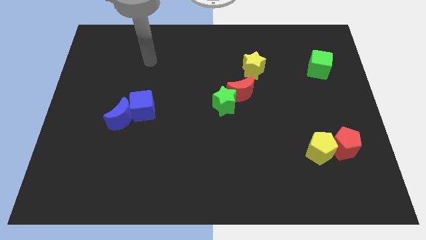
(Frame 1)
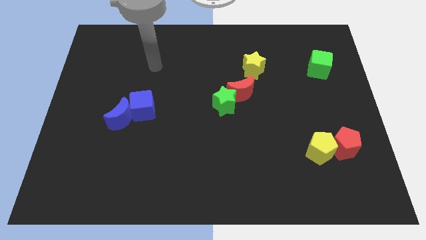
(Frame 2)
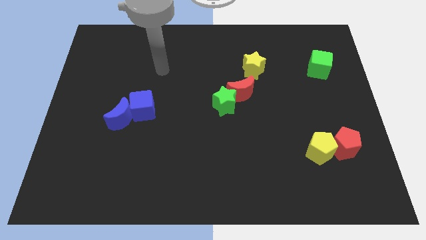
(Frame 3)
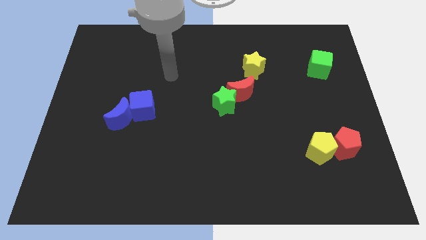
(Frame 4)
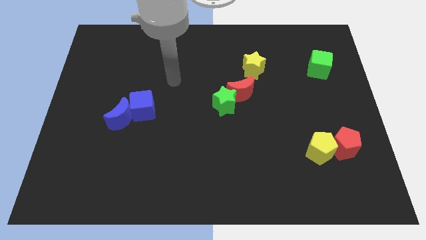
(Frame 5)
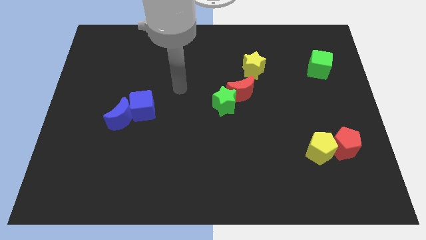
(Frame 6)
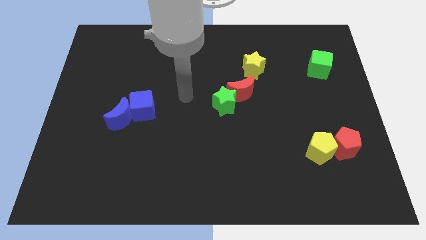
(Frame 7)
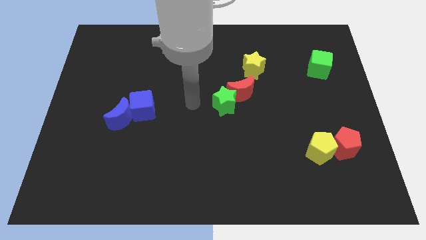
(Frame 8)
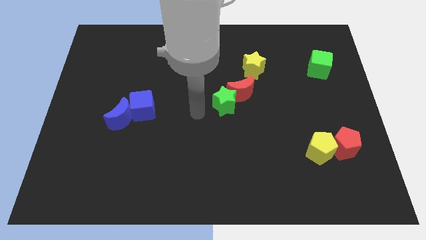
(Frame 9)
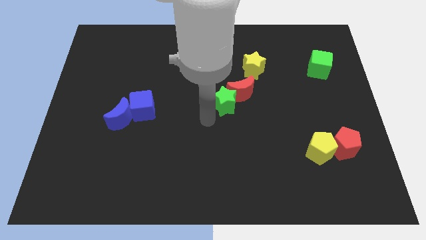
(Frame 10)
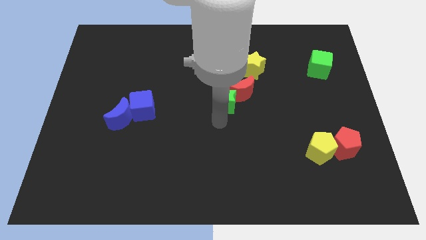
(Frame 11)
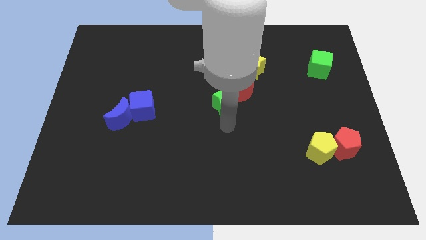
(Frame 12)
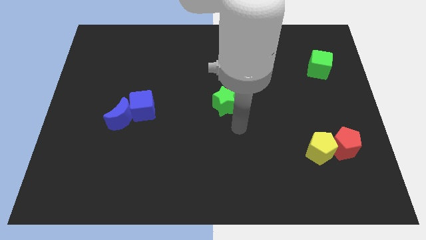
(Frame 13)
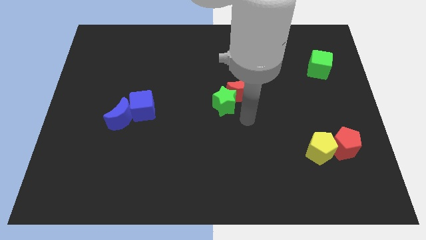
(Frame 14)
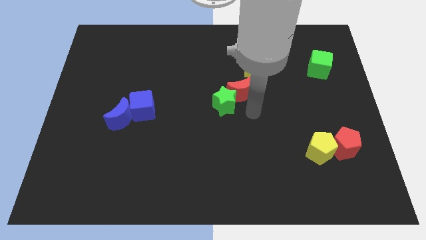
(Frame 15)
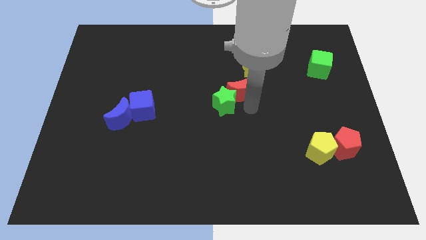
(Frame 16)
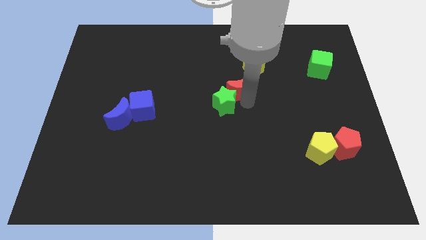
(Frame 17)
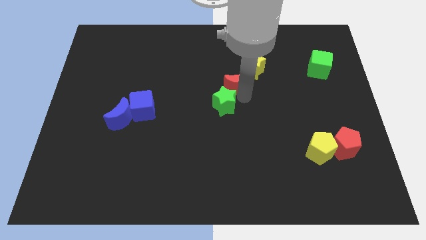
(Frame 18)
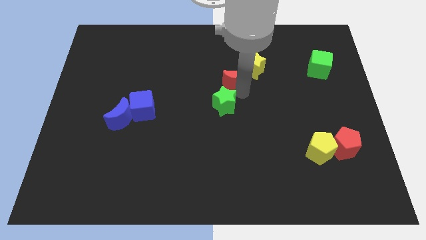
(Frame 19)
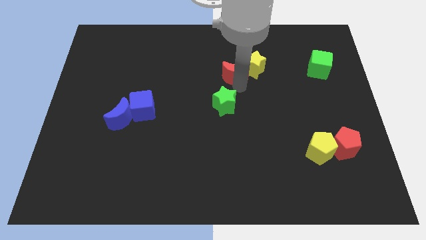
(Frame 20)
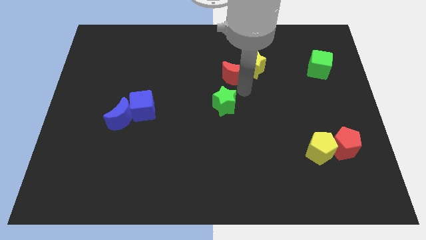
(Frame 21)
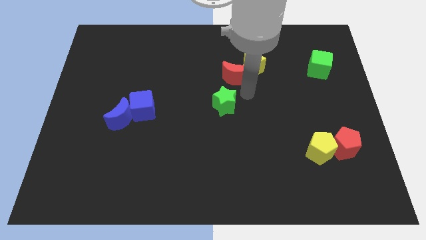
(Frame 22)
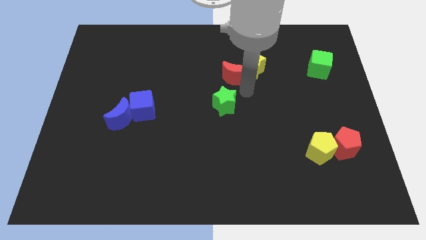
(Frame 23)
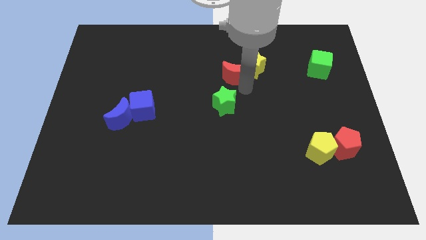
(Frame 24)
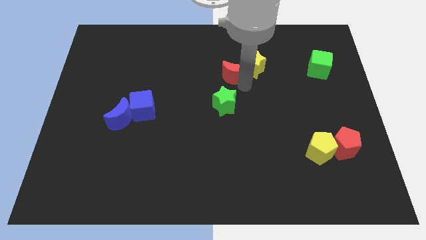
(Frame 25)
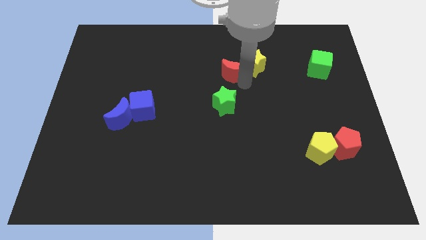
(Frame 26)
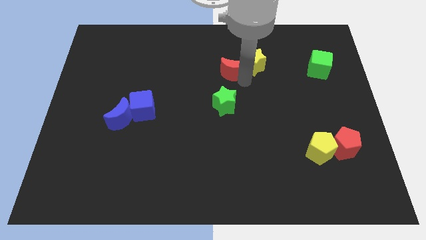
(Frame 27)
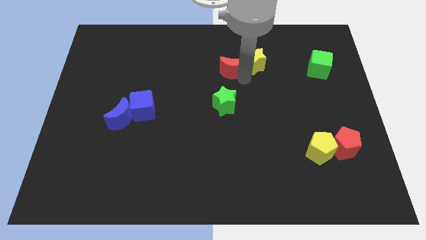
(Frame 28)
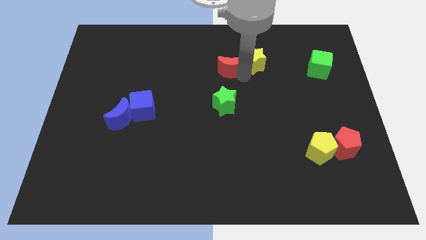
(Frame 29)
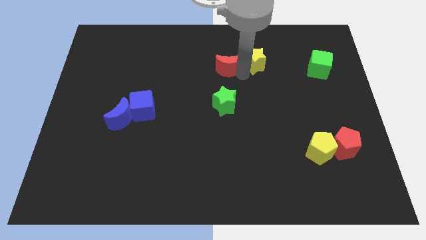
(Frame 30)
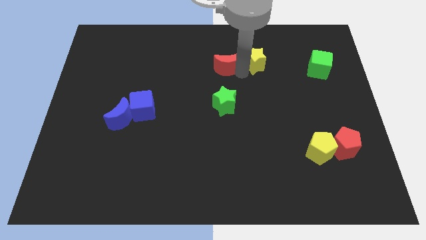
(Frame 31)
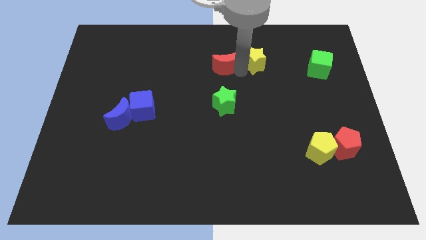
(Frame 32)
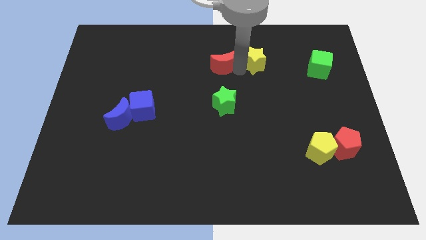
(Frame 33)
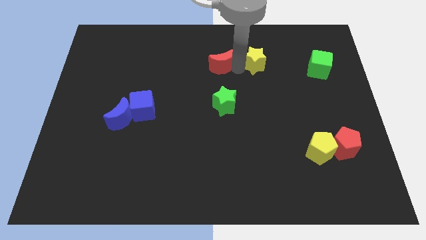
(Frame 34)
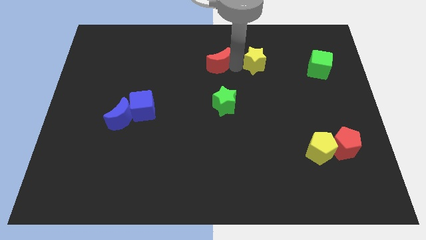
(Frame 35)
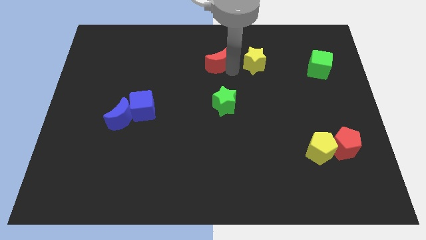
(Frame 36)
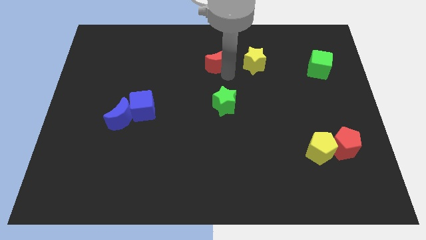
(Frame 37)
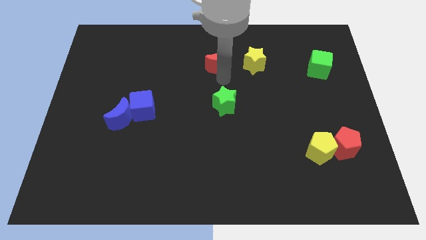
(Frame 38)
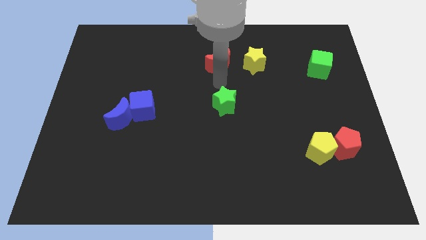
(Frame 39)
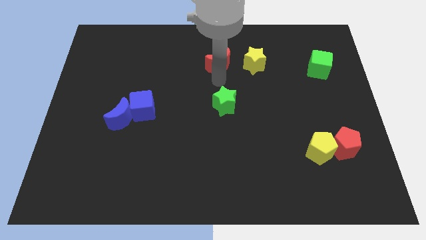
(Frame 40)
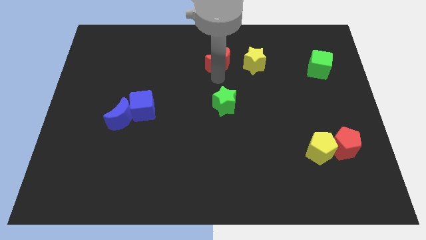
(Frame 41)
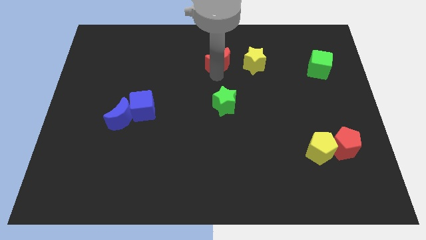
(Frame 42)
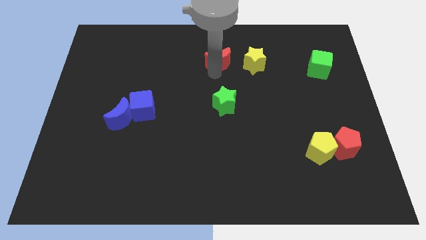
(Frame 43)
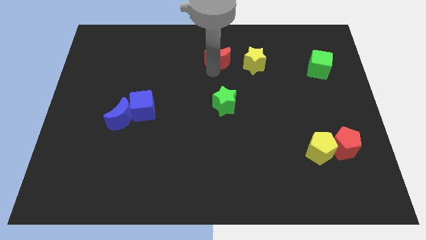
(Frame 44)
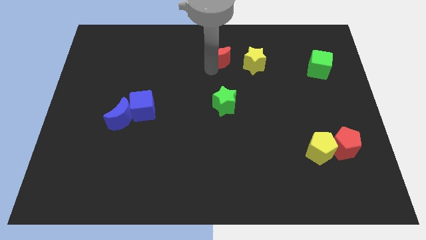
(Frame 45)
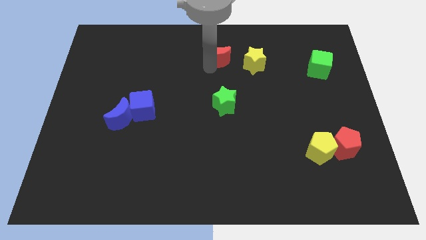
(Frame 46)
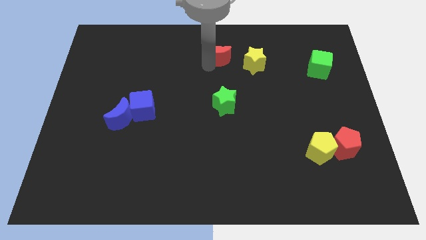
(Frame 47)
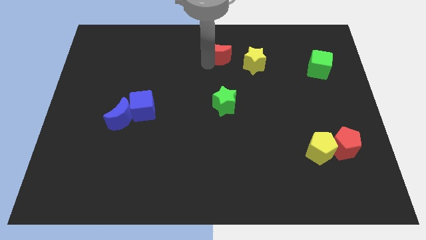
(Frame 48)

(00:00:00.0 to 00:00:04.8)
push the red moon to the top

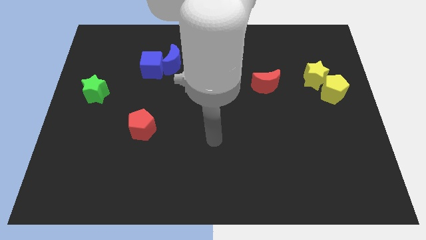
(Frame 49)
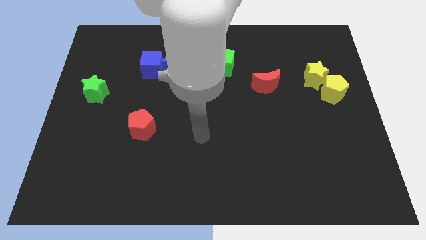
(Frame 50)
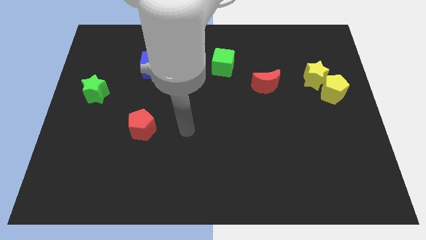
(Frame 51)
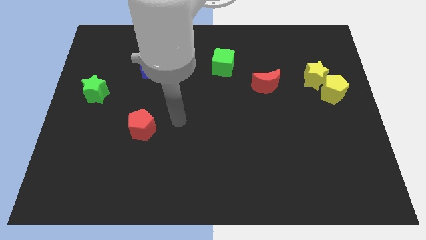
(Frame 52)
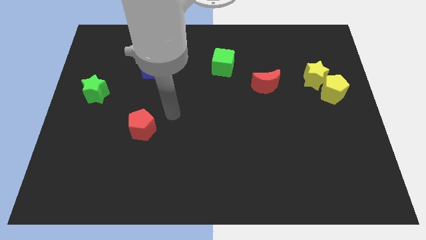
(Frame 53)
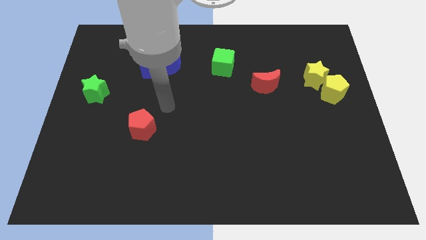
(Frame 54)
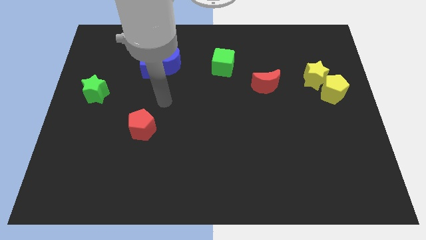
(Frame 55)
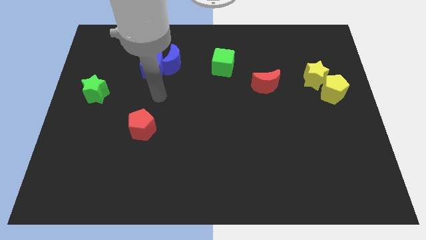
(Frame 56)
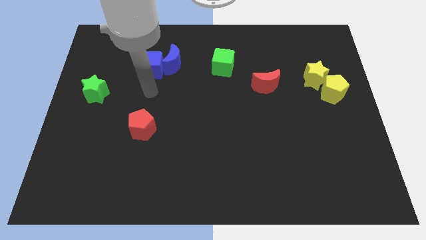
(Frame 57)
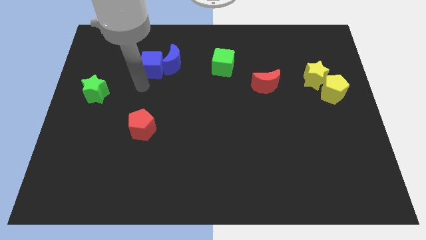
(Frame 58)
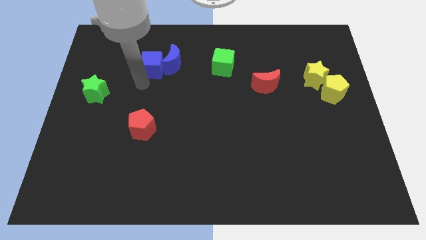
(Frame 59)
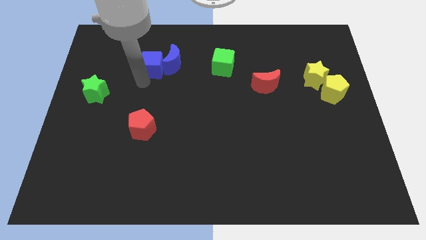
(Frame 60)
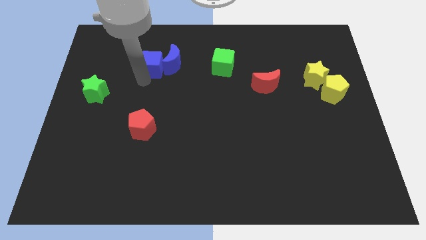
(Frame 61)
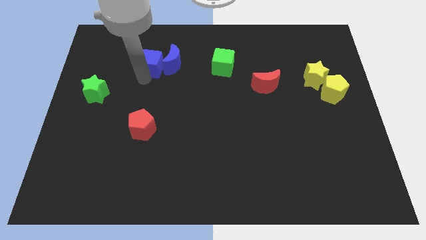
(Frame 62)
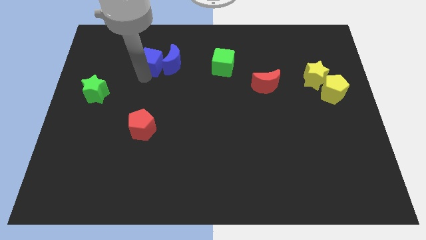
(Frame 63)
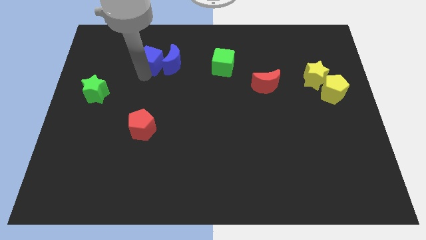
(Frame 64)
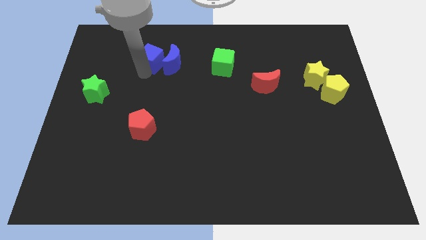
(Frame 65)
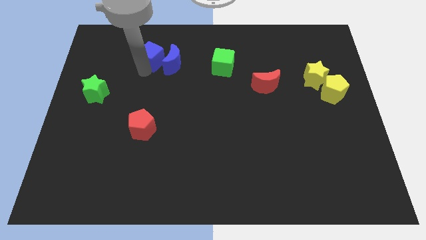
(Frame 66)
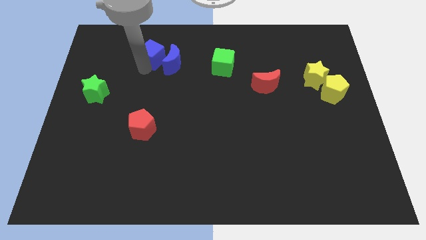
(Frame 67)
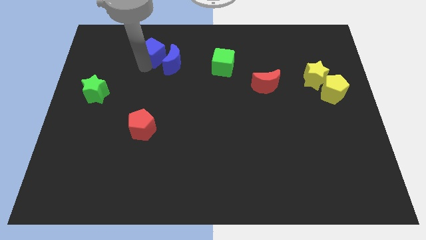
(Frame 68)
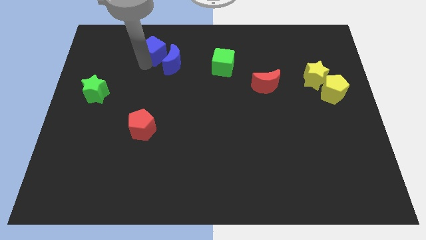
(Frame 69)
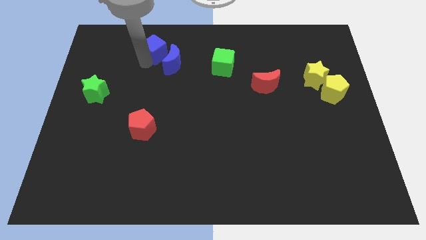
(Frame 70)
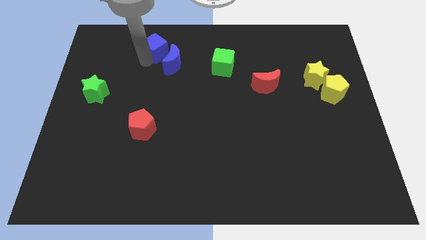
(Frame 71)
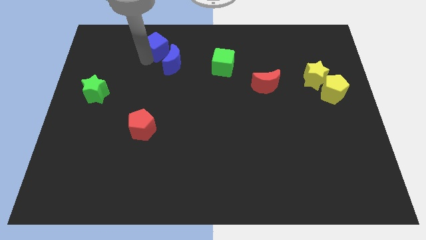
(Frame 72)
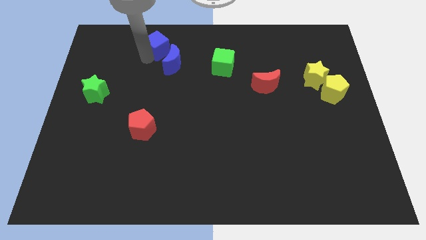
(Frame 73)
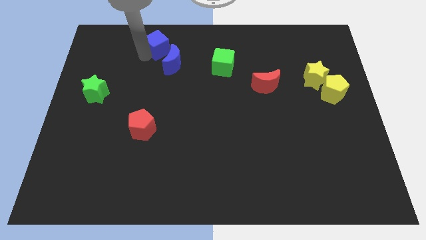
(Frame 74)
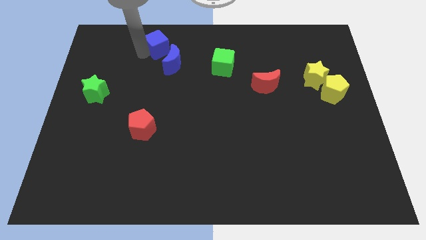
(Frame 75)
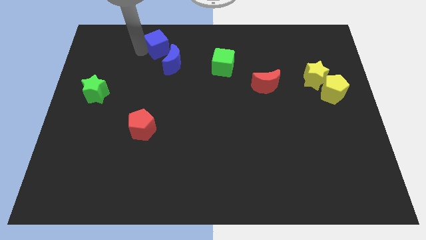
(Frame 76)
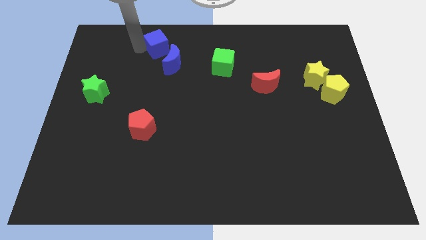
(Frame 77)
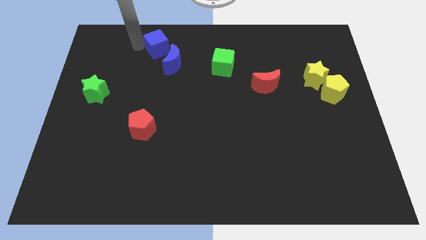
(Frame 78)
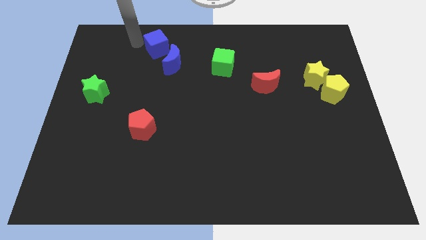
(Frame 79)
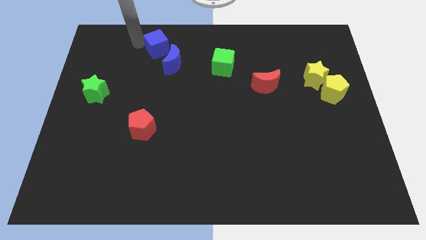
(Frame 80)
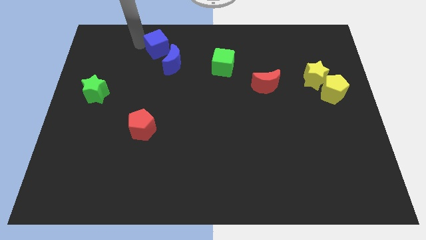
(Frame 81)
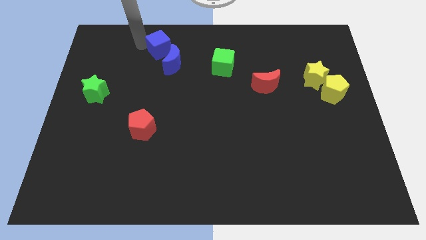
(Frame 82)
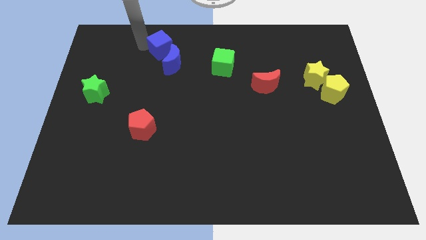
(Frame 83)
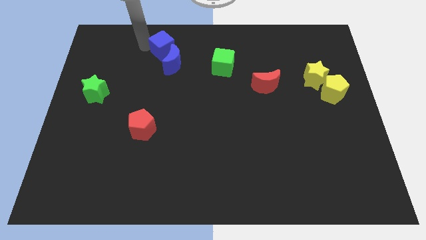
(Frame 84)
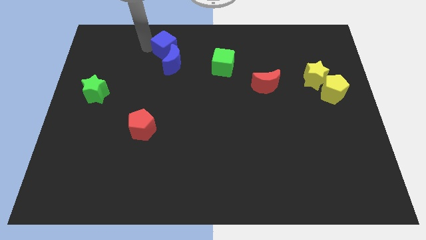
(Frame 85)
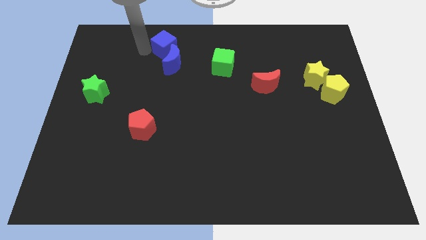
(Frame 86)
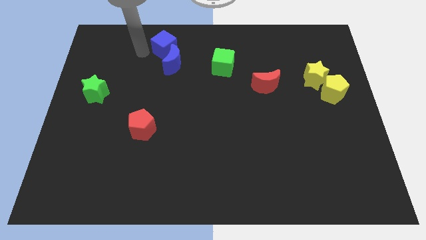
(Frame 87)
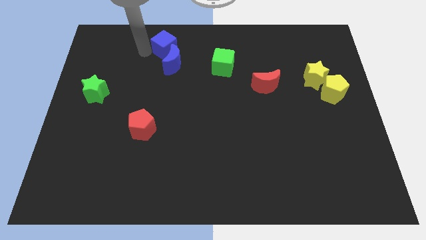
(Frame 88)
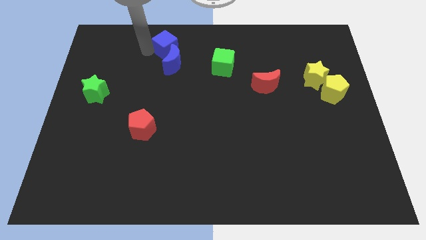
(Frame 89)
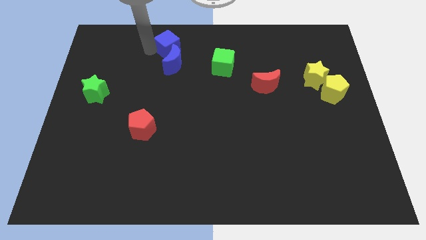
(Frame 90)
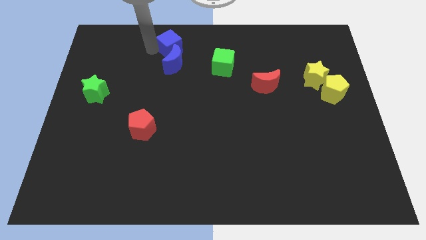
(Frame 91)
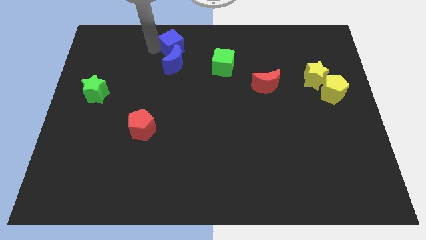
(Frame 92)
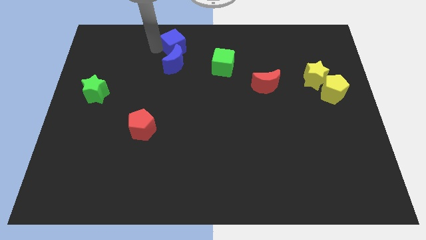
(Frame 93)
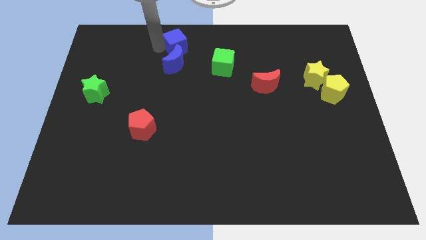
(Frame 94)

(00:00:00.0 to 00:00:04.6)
slide the blue cube to the top
